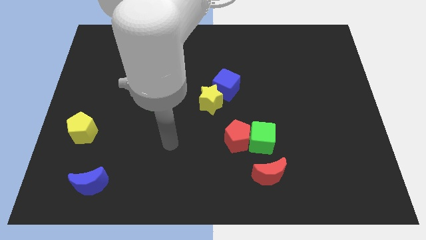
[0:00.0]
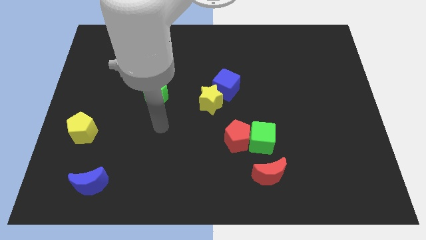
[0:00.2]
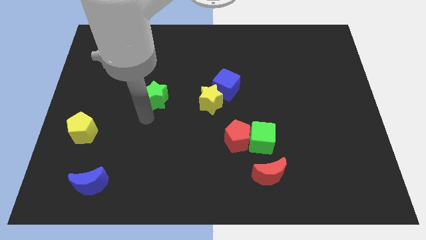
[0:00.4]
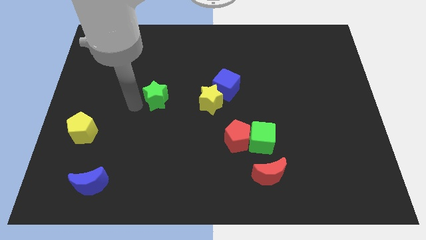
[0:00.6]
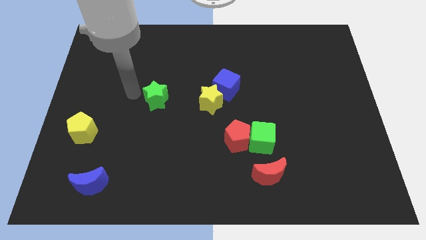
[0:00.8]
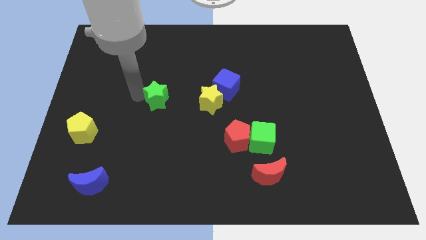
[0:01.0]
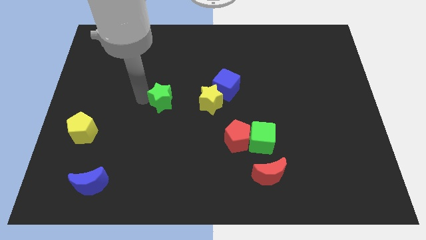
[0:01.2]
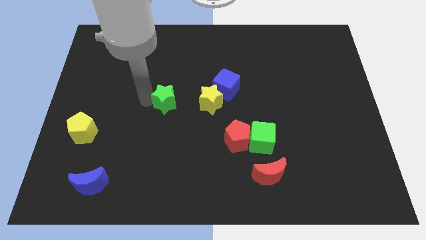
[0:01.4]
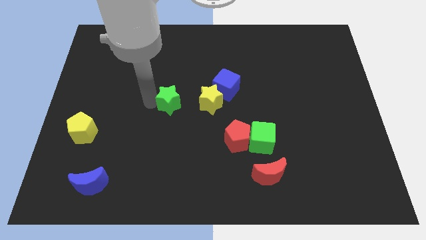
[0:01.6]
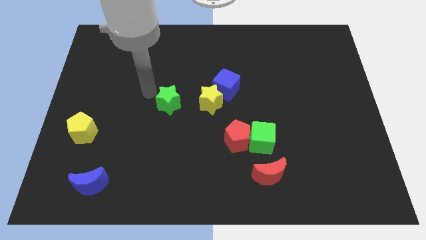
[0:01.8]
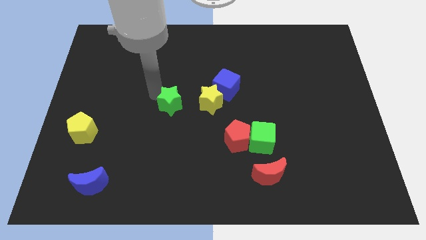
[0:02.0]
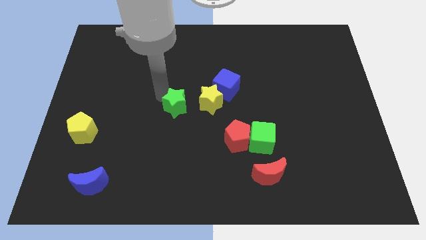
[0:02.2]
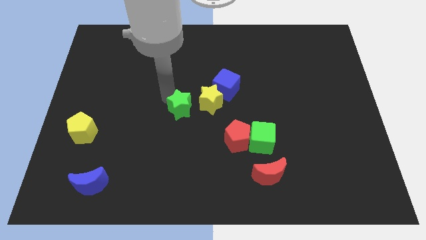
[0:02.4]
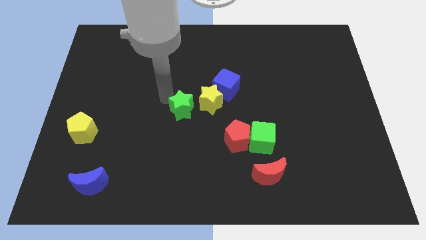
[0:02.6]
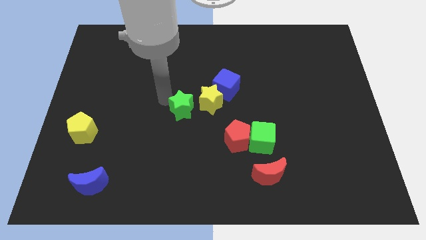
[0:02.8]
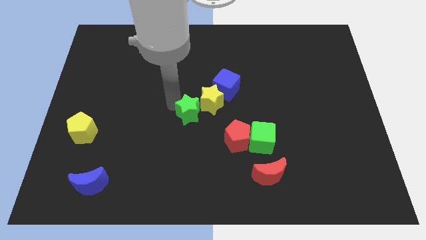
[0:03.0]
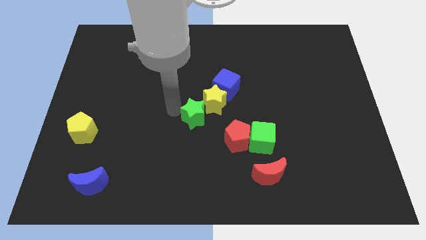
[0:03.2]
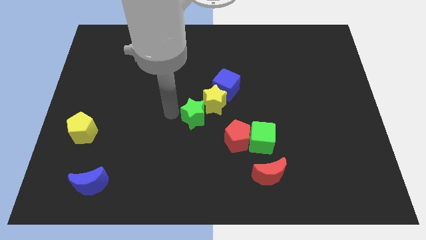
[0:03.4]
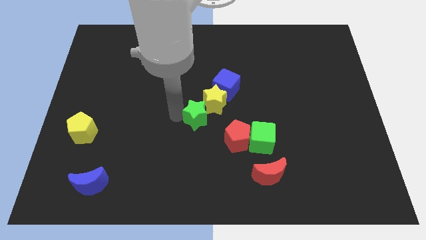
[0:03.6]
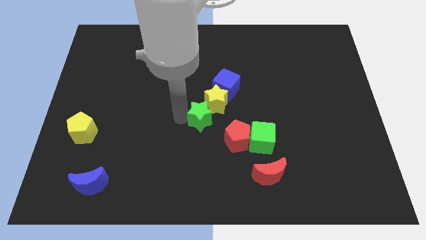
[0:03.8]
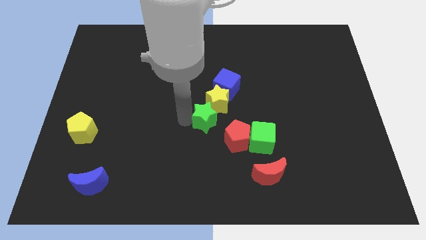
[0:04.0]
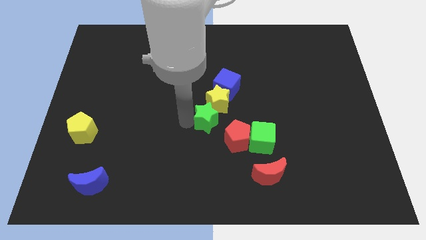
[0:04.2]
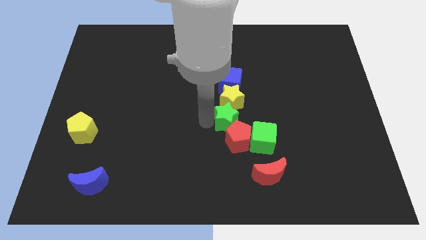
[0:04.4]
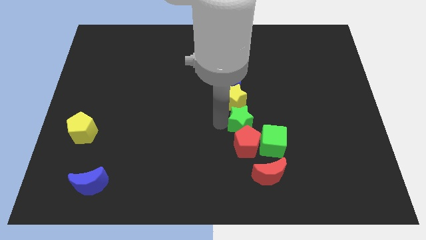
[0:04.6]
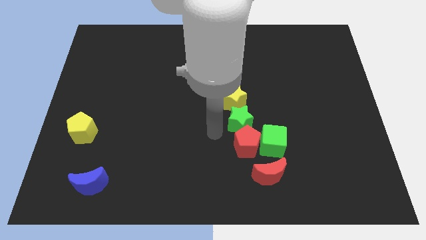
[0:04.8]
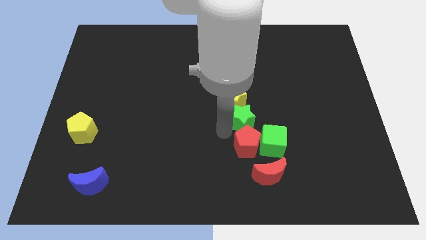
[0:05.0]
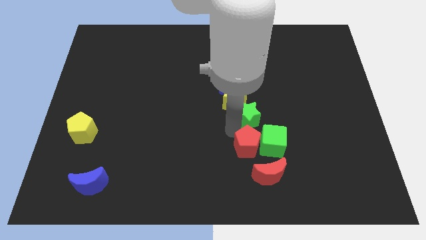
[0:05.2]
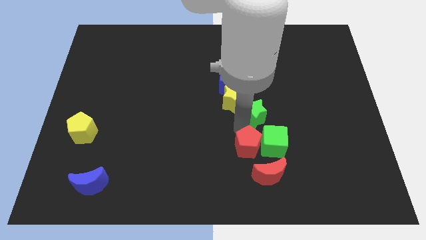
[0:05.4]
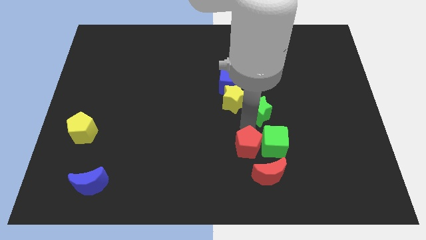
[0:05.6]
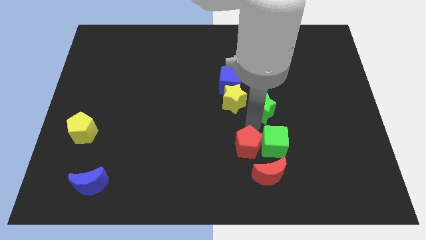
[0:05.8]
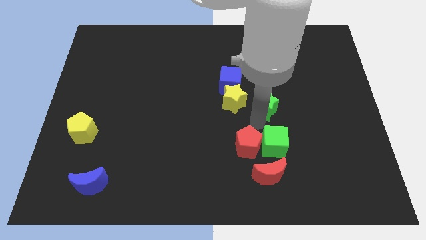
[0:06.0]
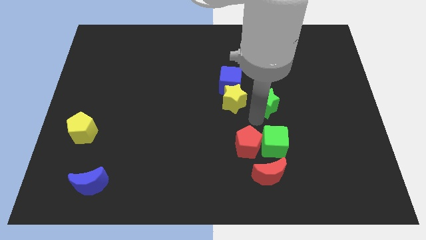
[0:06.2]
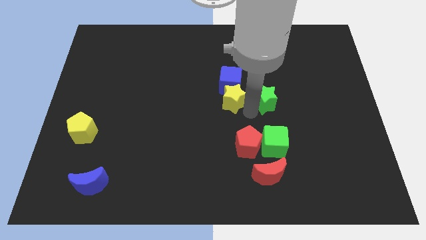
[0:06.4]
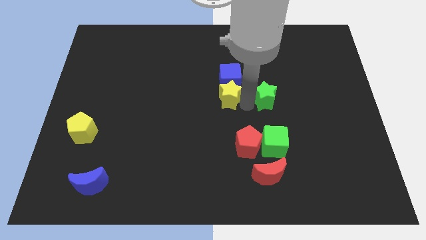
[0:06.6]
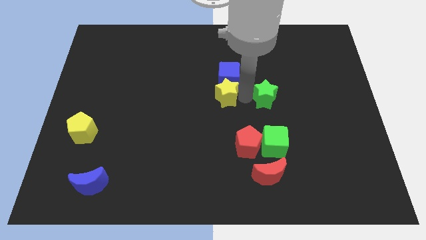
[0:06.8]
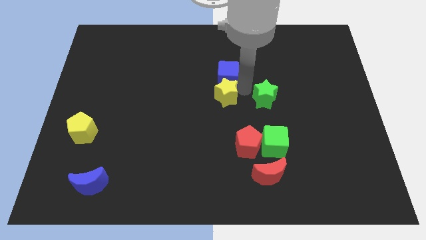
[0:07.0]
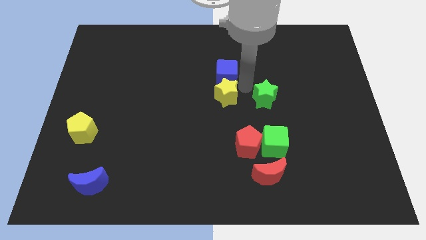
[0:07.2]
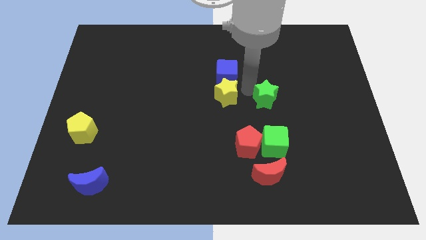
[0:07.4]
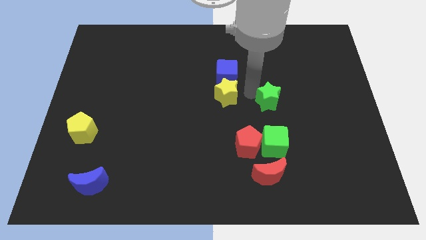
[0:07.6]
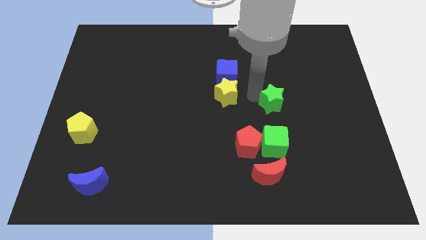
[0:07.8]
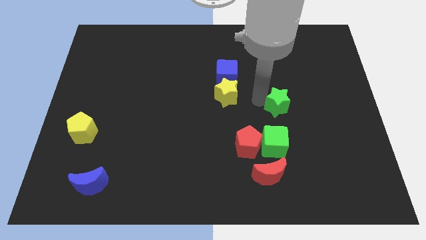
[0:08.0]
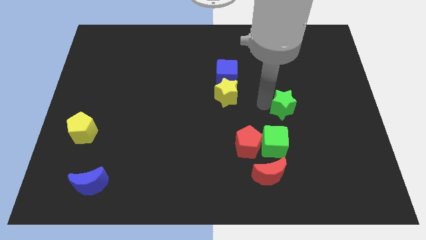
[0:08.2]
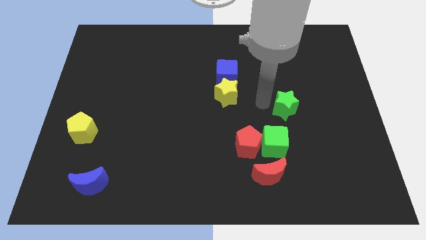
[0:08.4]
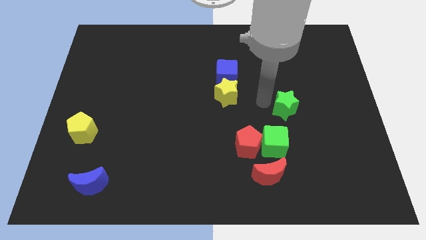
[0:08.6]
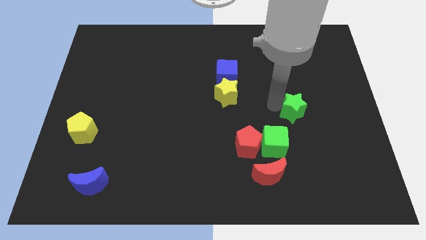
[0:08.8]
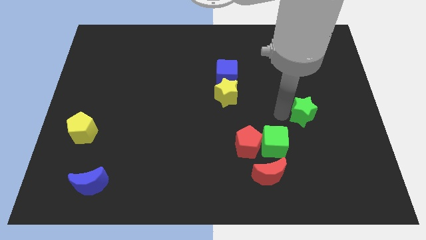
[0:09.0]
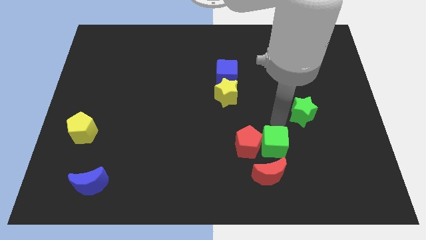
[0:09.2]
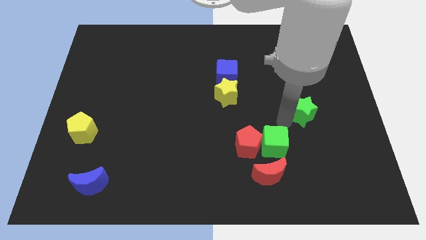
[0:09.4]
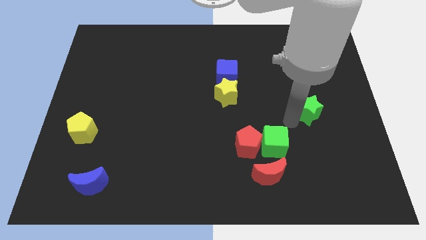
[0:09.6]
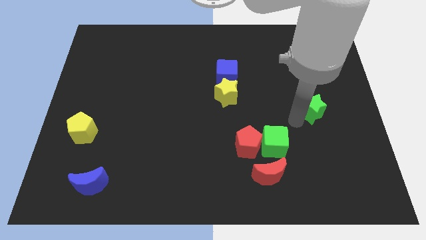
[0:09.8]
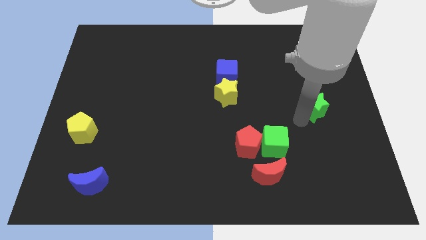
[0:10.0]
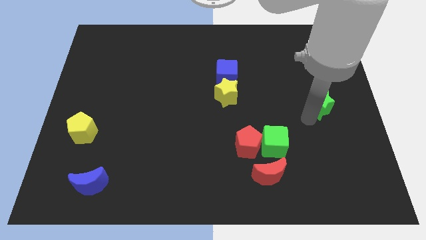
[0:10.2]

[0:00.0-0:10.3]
slide the green star to the right side
